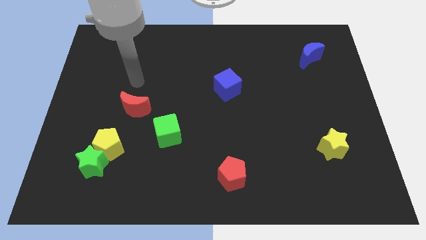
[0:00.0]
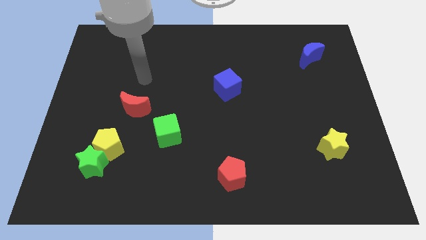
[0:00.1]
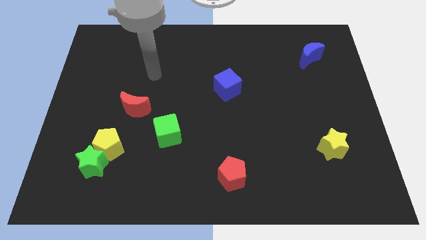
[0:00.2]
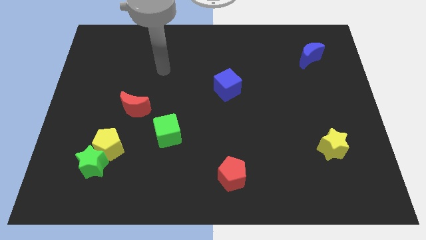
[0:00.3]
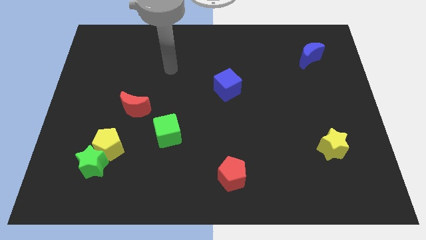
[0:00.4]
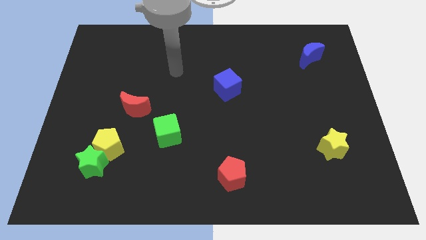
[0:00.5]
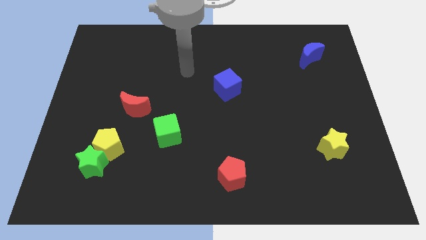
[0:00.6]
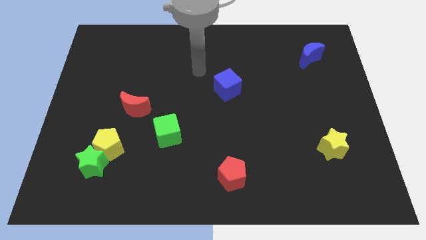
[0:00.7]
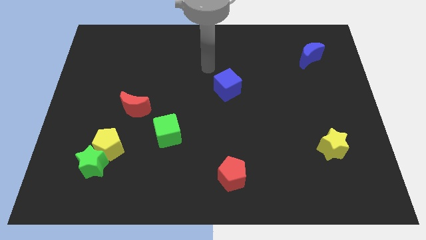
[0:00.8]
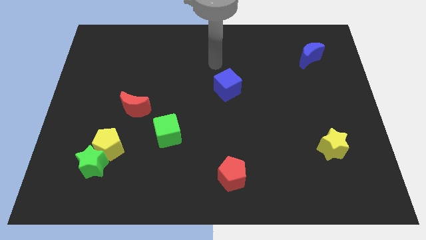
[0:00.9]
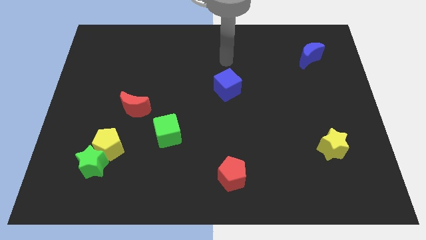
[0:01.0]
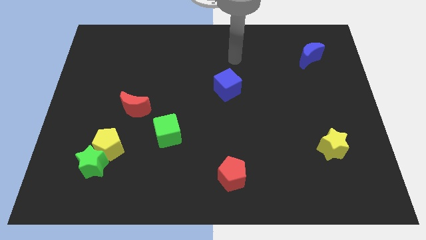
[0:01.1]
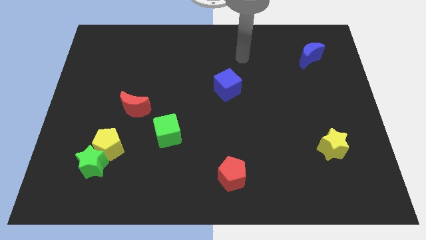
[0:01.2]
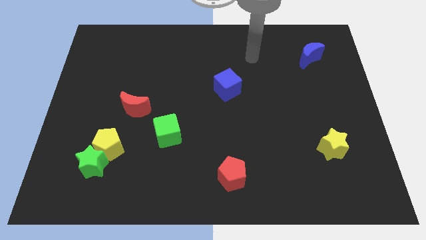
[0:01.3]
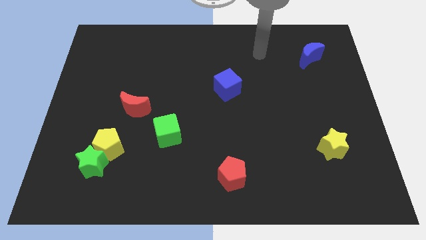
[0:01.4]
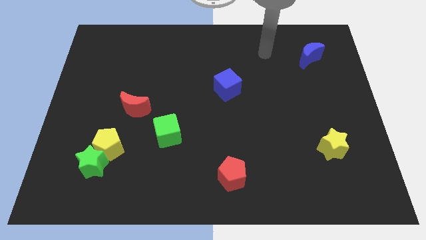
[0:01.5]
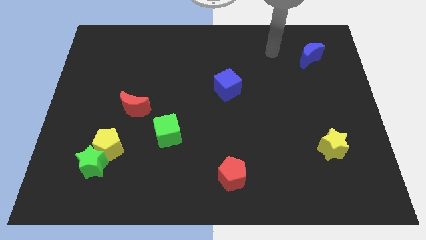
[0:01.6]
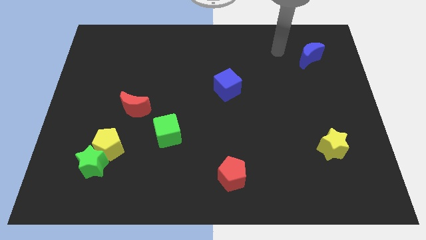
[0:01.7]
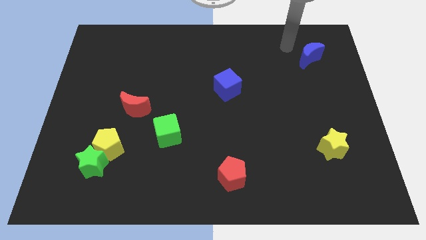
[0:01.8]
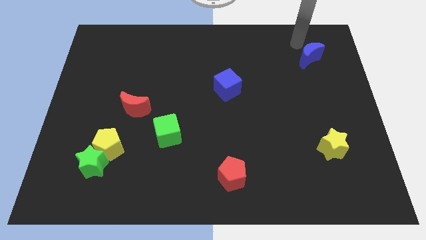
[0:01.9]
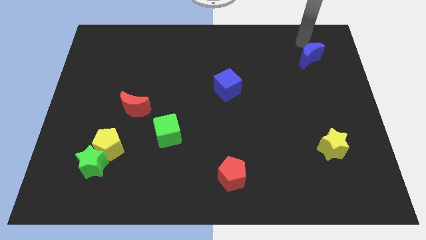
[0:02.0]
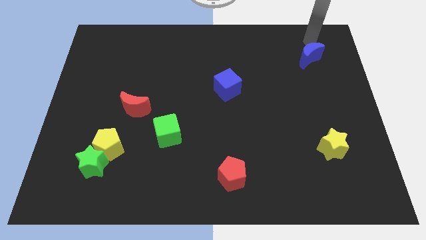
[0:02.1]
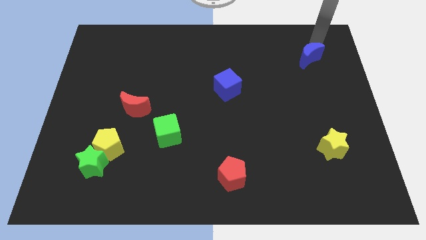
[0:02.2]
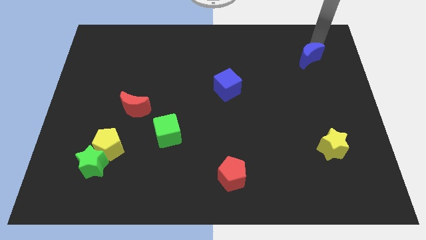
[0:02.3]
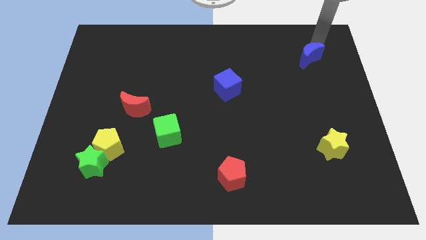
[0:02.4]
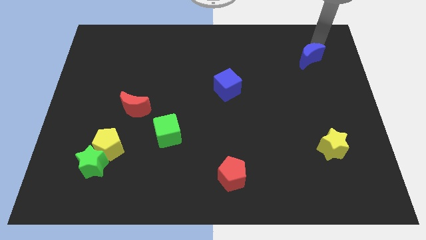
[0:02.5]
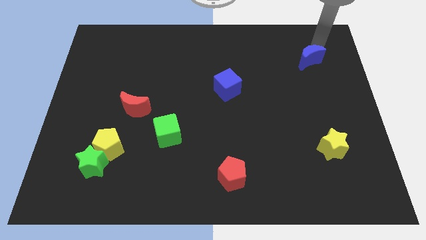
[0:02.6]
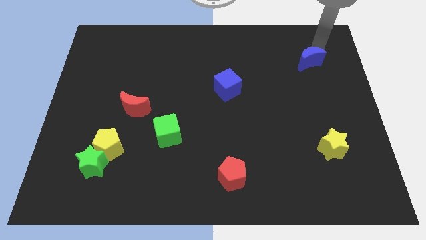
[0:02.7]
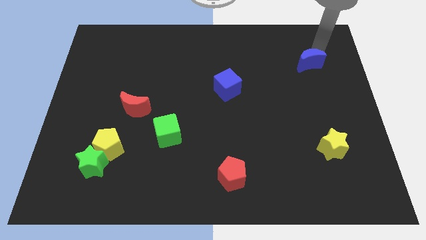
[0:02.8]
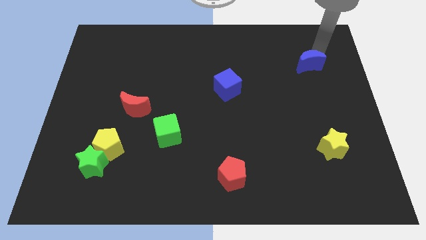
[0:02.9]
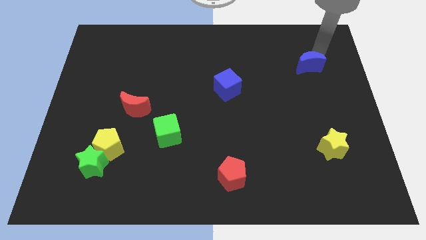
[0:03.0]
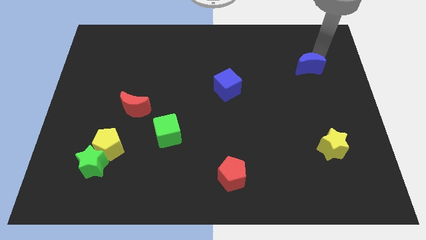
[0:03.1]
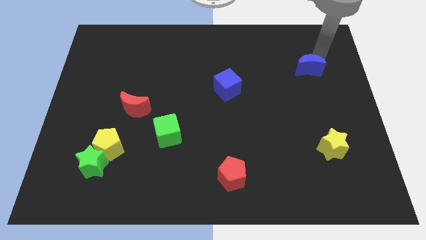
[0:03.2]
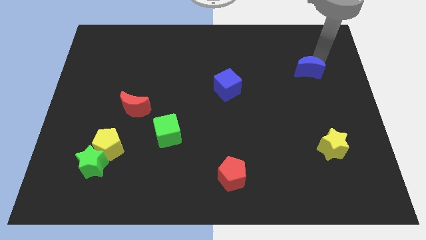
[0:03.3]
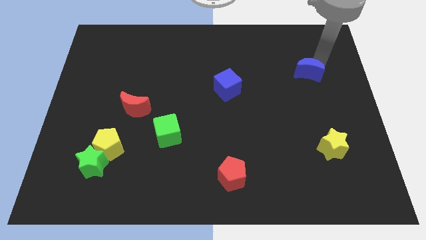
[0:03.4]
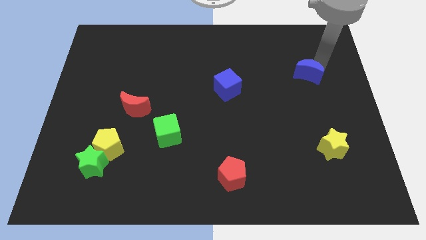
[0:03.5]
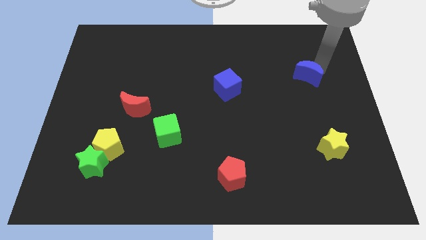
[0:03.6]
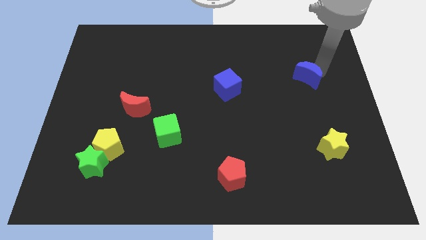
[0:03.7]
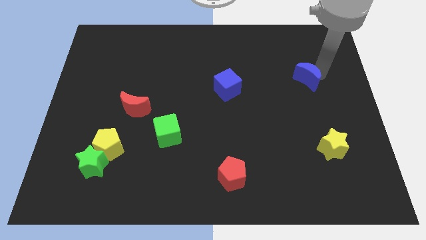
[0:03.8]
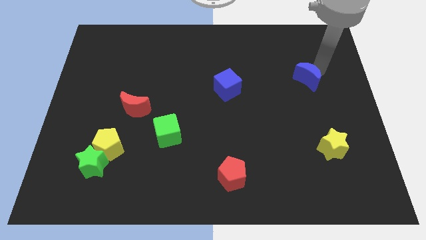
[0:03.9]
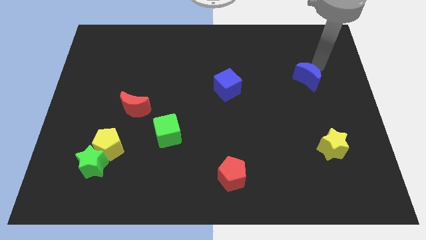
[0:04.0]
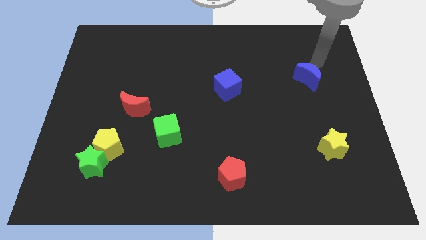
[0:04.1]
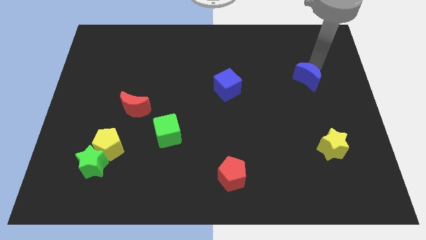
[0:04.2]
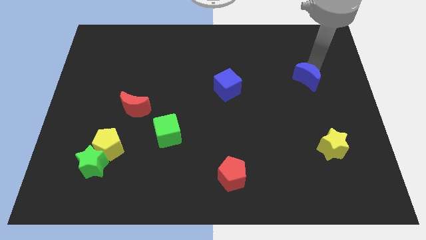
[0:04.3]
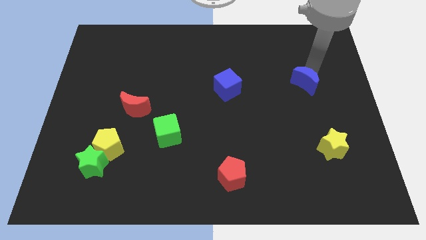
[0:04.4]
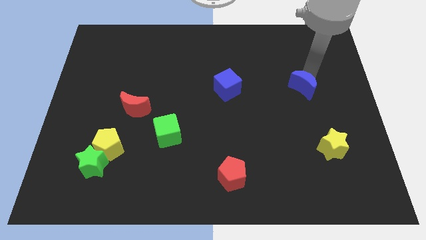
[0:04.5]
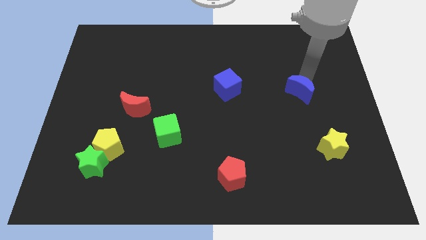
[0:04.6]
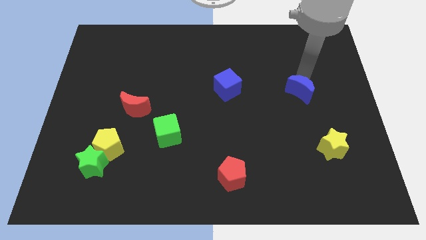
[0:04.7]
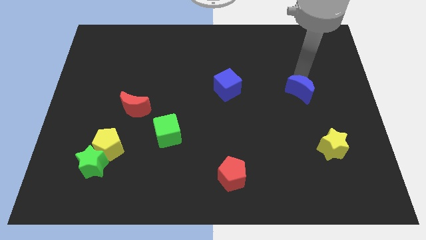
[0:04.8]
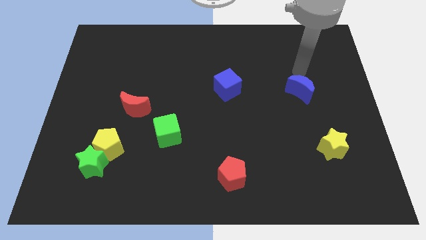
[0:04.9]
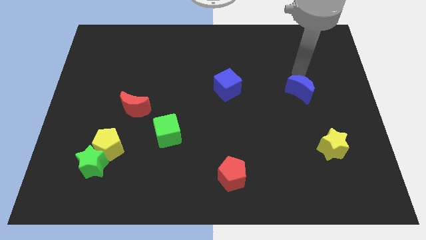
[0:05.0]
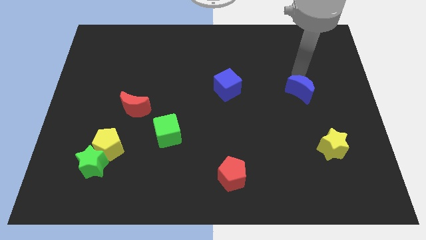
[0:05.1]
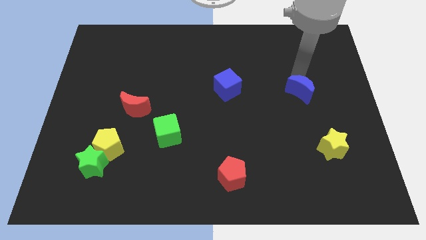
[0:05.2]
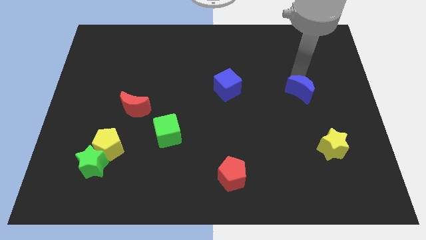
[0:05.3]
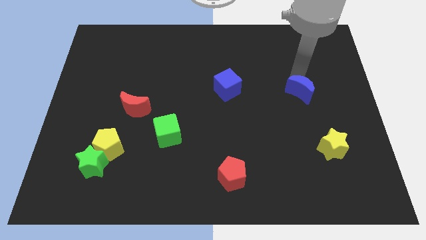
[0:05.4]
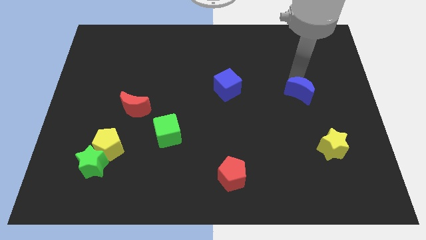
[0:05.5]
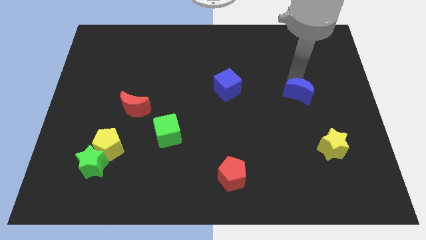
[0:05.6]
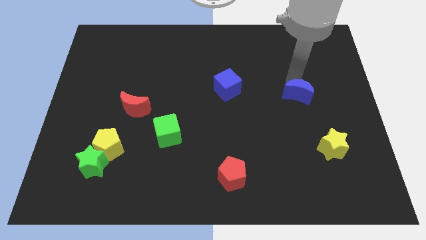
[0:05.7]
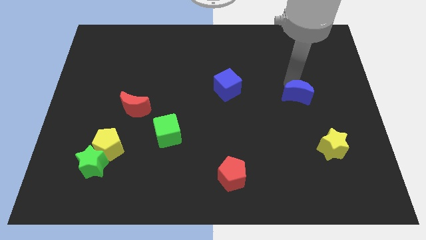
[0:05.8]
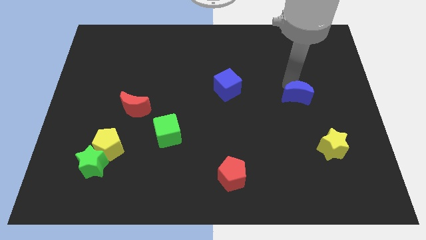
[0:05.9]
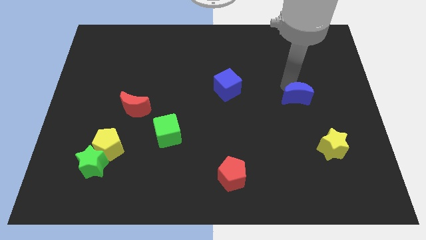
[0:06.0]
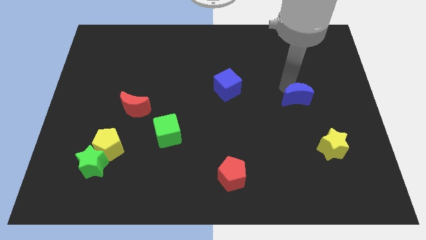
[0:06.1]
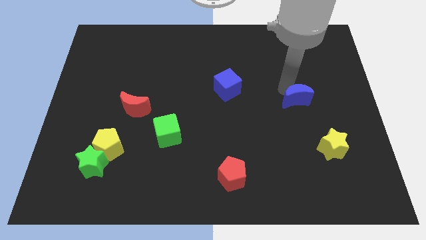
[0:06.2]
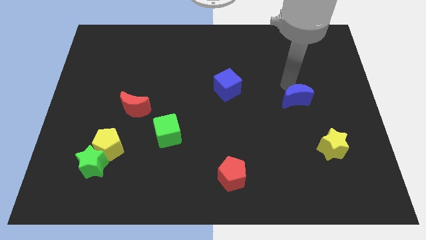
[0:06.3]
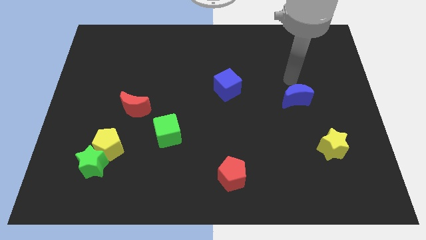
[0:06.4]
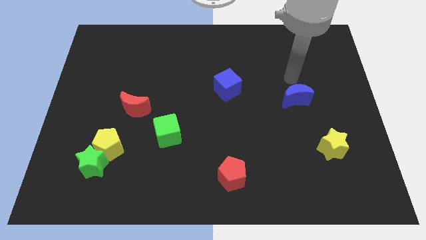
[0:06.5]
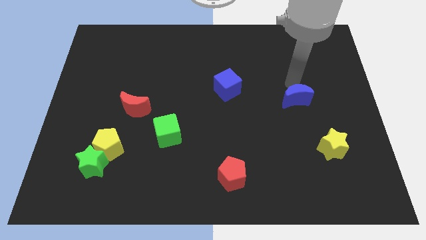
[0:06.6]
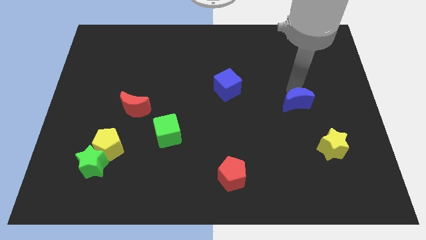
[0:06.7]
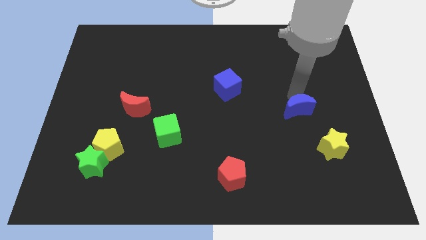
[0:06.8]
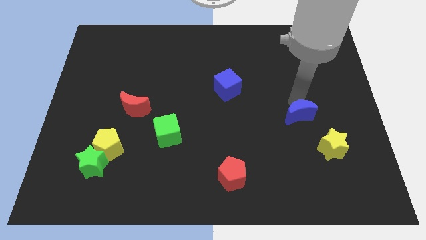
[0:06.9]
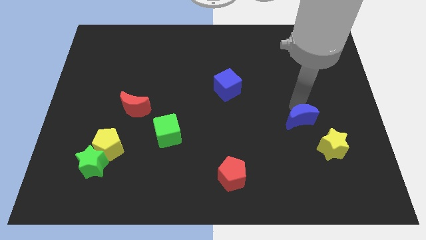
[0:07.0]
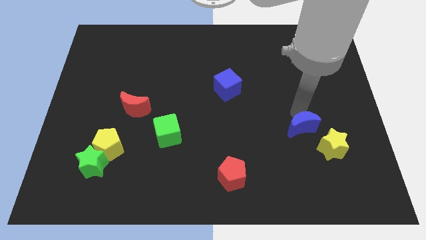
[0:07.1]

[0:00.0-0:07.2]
push the blue moon down

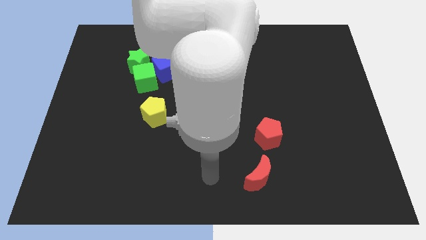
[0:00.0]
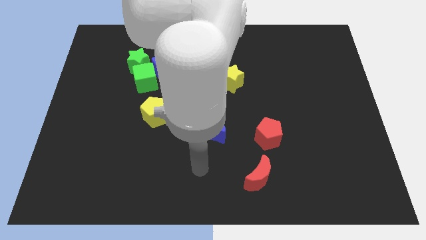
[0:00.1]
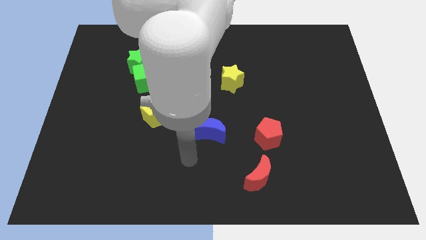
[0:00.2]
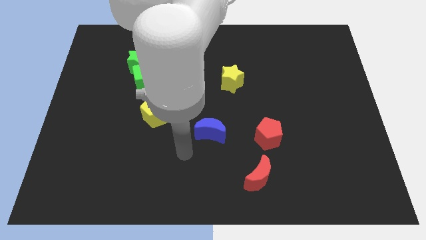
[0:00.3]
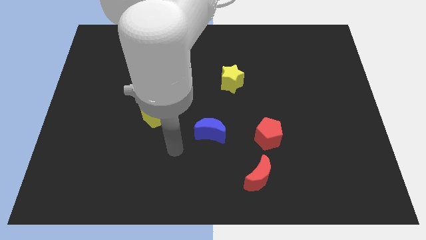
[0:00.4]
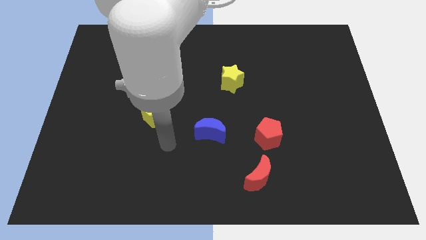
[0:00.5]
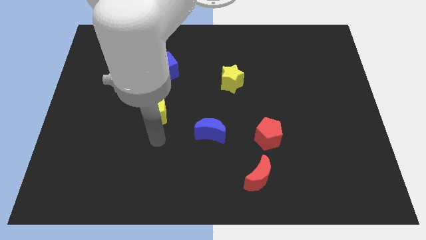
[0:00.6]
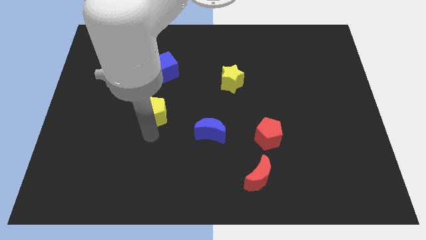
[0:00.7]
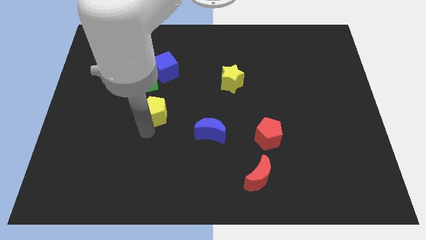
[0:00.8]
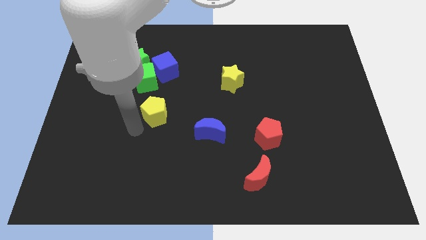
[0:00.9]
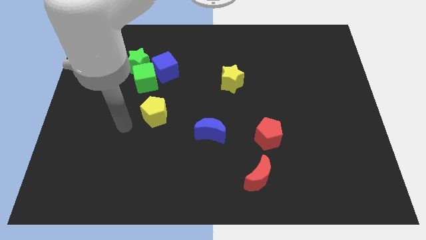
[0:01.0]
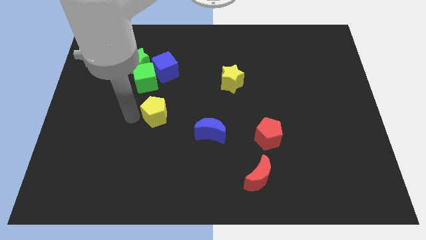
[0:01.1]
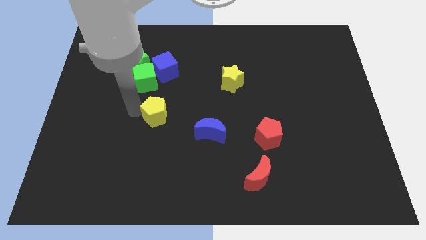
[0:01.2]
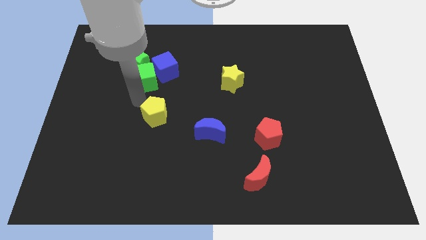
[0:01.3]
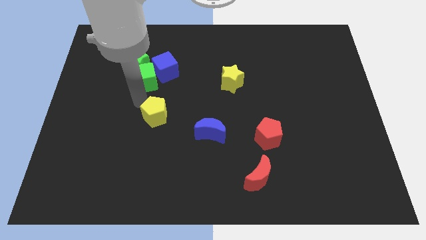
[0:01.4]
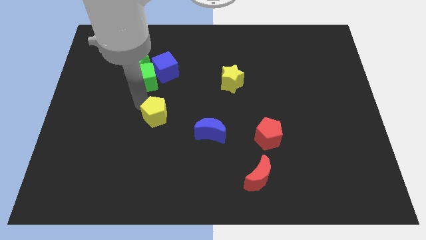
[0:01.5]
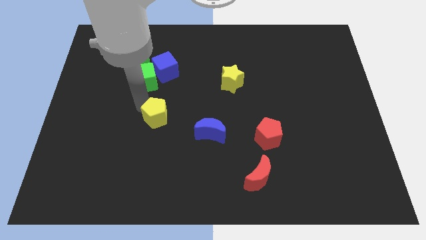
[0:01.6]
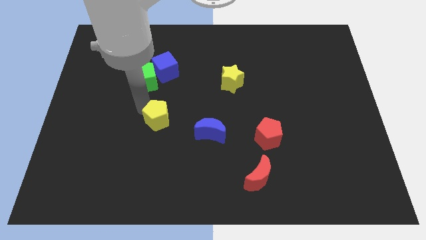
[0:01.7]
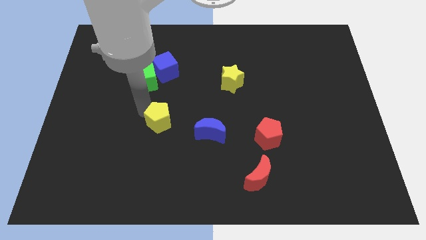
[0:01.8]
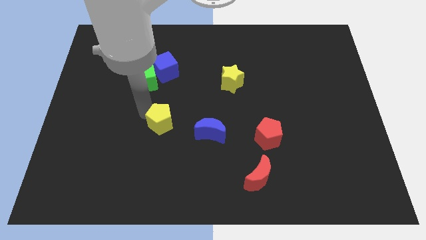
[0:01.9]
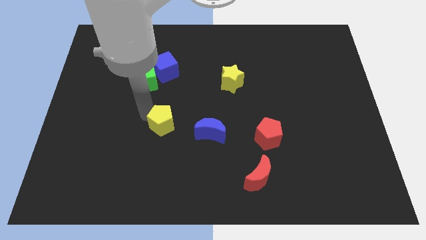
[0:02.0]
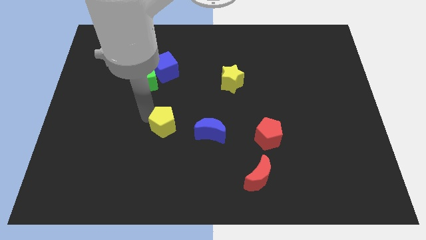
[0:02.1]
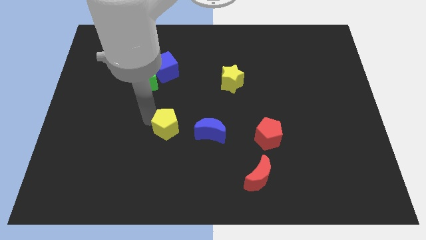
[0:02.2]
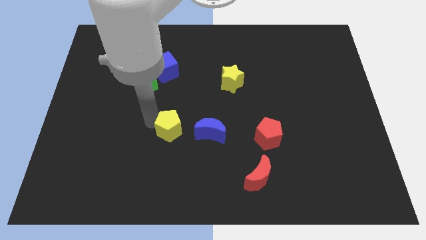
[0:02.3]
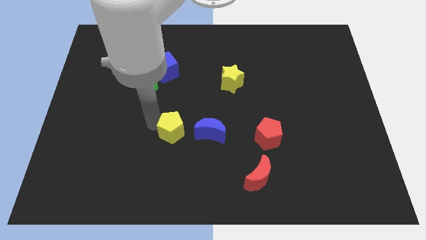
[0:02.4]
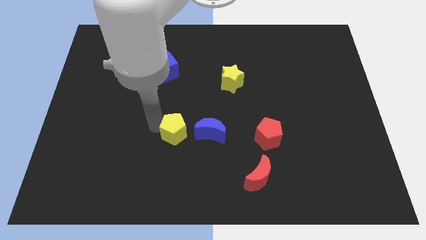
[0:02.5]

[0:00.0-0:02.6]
push the yellow pentagon down and to the right somewhat
